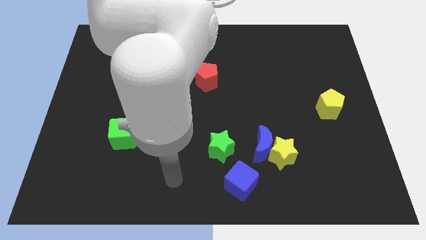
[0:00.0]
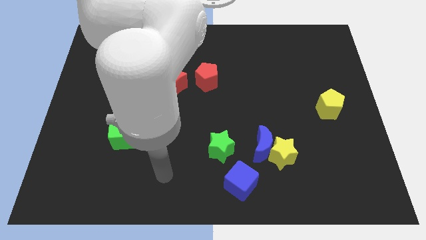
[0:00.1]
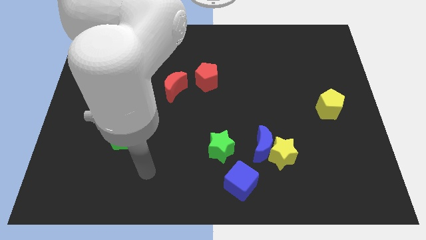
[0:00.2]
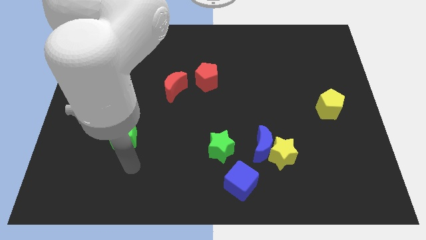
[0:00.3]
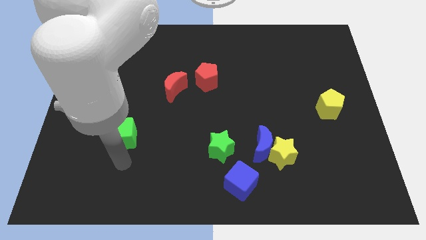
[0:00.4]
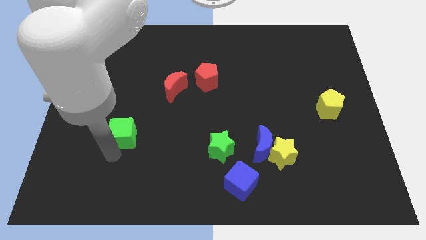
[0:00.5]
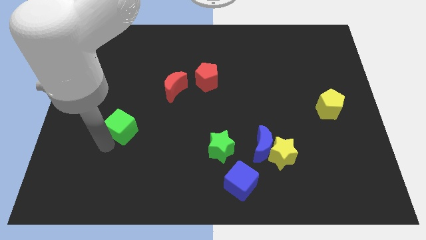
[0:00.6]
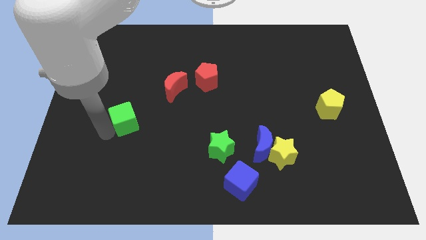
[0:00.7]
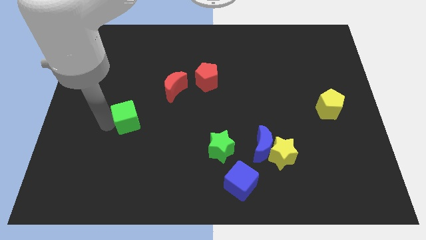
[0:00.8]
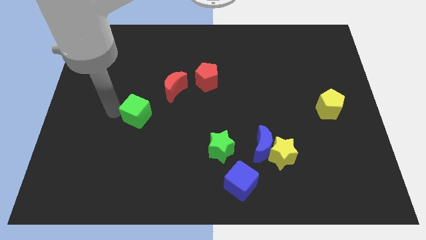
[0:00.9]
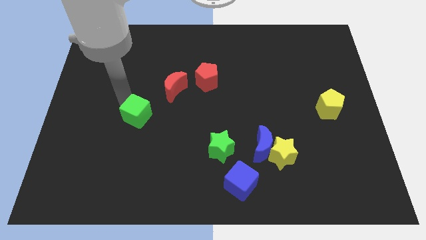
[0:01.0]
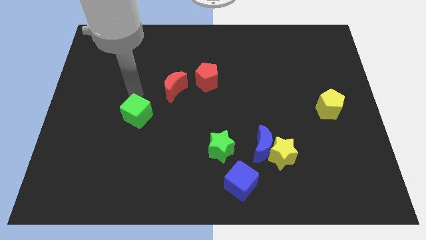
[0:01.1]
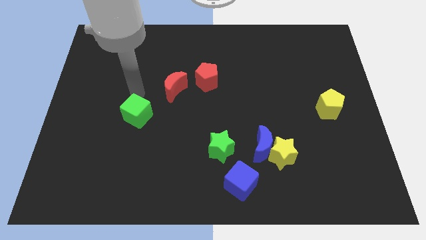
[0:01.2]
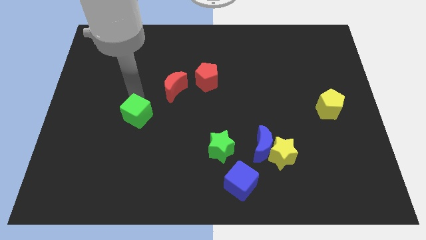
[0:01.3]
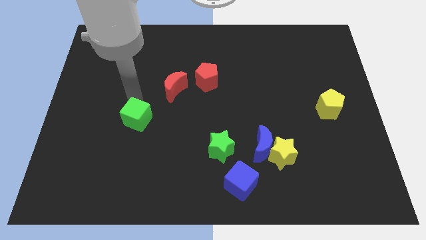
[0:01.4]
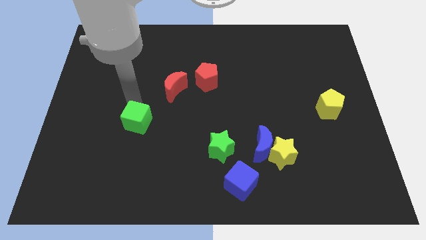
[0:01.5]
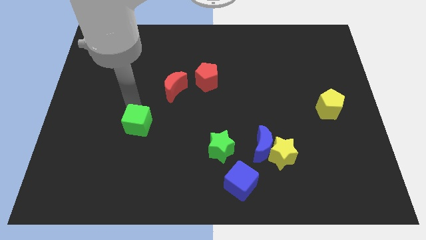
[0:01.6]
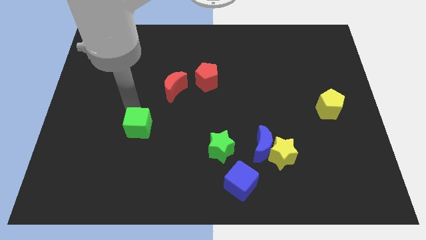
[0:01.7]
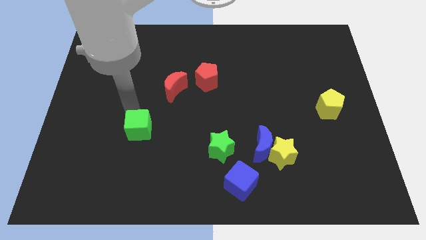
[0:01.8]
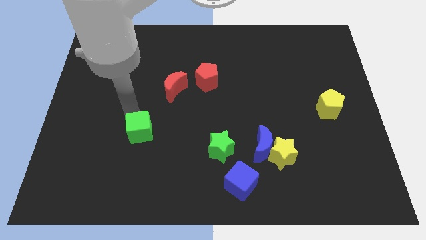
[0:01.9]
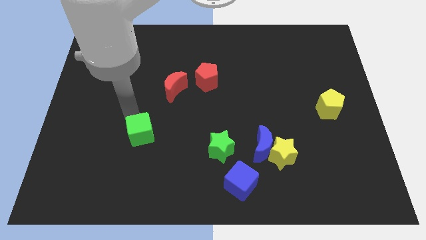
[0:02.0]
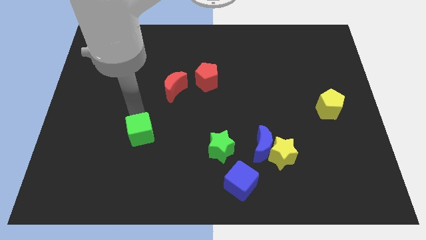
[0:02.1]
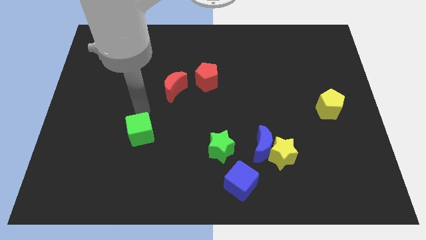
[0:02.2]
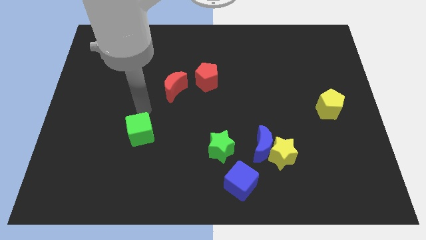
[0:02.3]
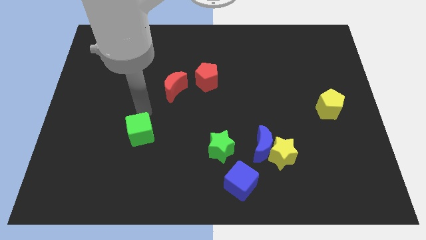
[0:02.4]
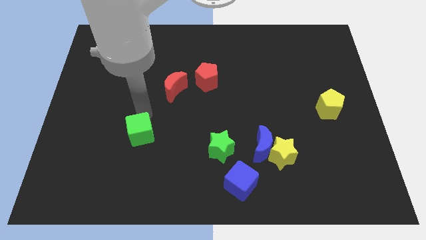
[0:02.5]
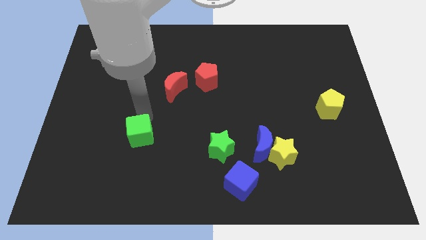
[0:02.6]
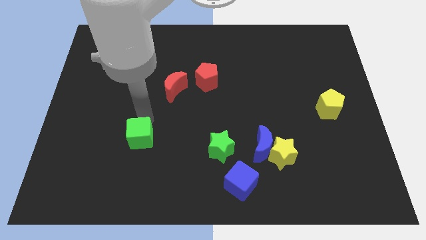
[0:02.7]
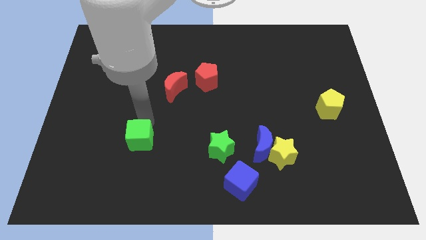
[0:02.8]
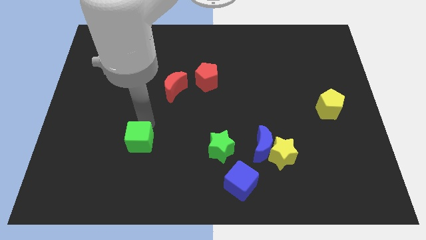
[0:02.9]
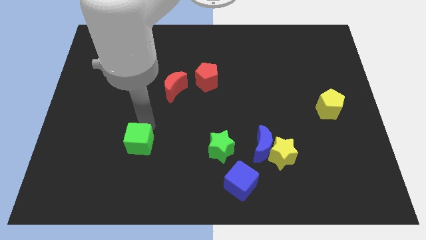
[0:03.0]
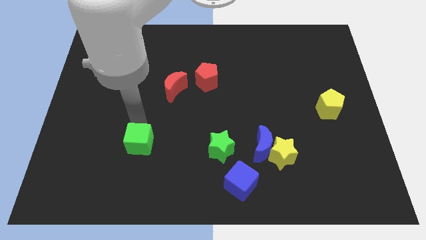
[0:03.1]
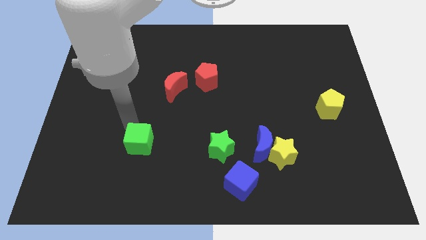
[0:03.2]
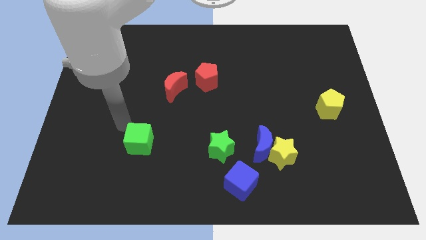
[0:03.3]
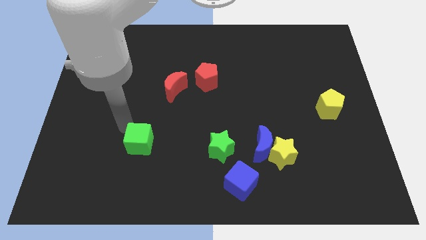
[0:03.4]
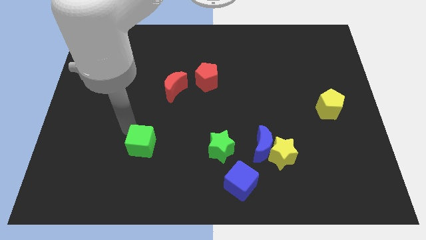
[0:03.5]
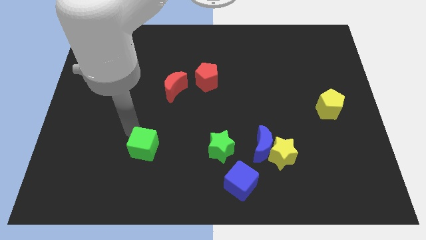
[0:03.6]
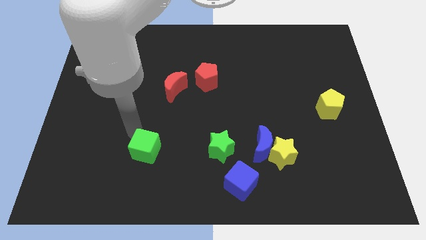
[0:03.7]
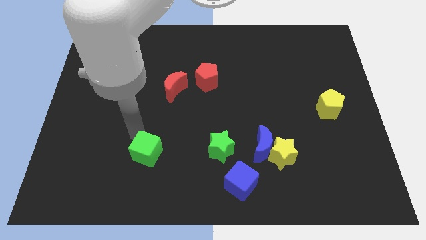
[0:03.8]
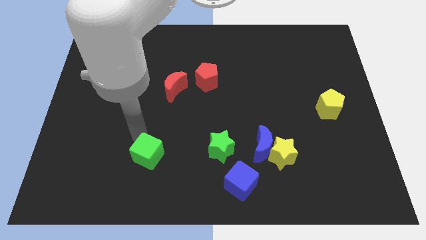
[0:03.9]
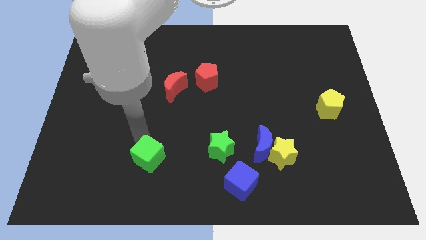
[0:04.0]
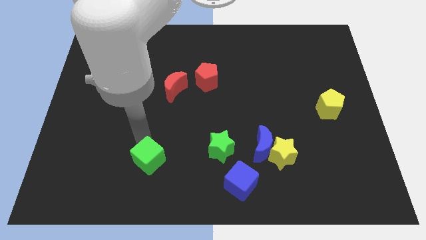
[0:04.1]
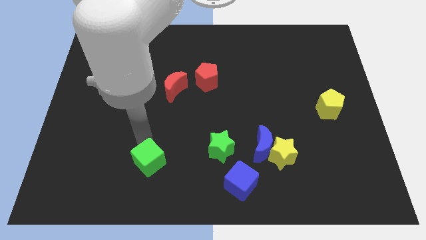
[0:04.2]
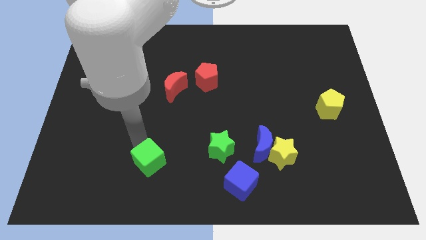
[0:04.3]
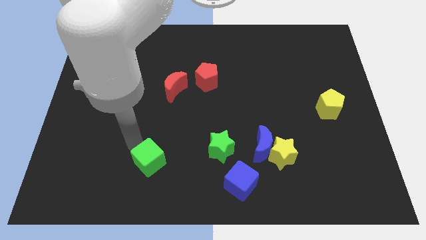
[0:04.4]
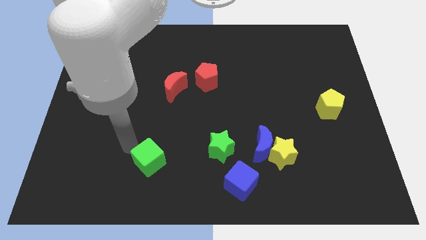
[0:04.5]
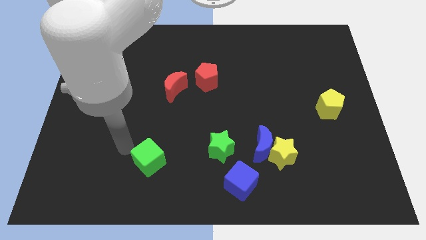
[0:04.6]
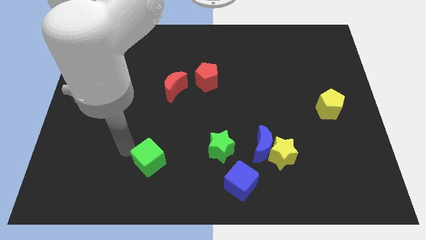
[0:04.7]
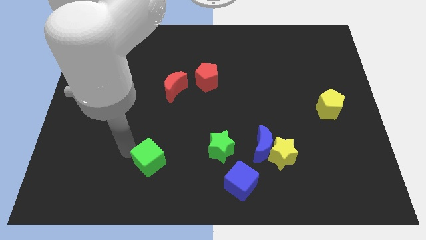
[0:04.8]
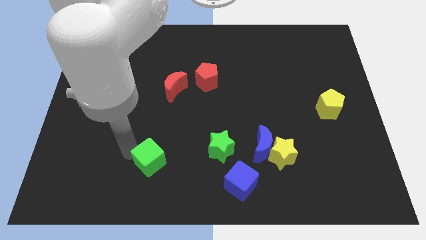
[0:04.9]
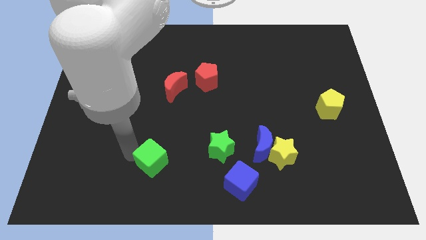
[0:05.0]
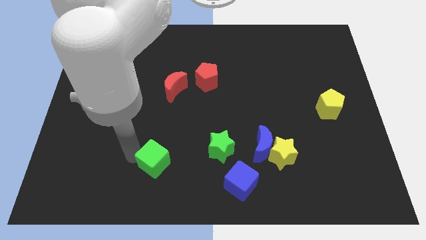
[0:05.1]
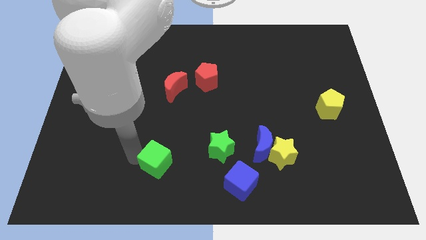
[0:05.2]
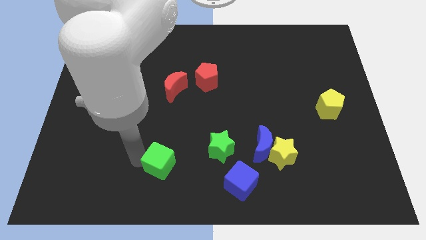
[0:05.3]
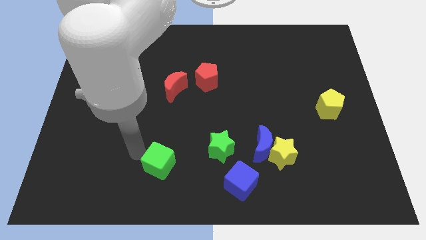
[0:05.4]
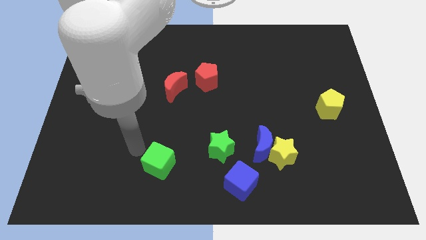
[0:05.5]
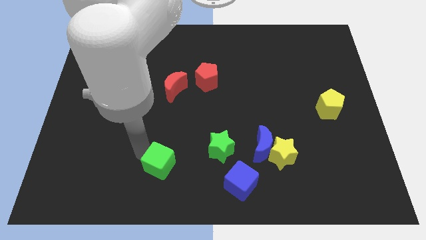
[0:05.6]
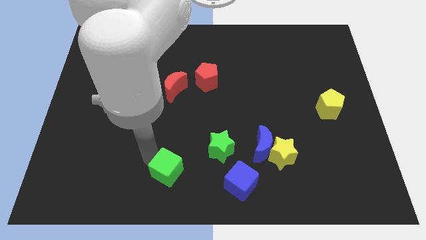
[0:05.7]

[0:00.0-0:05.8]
push the green cube left of the blue cube
